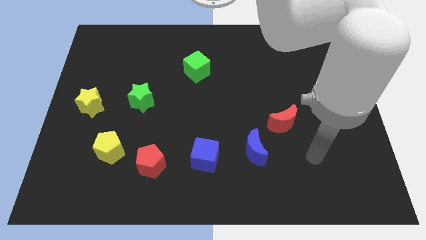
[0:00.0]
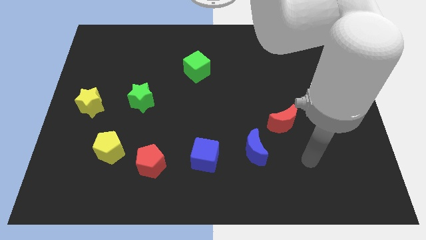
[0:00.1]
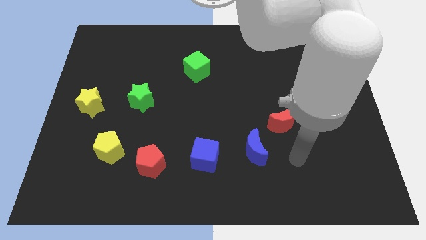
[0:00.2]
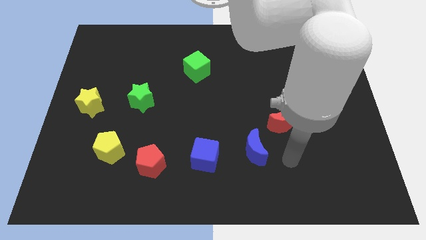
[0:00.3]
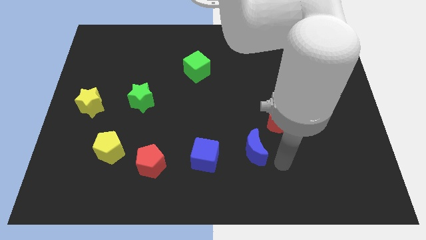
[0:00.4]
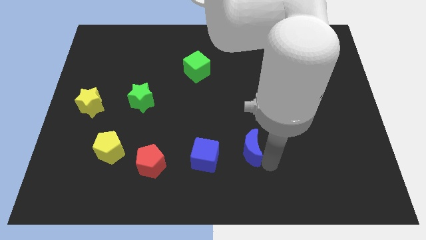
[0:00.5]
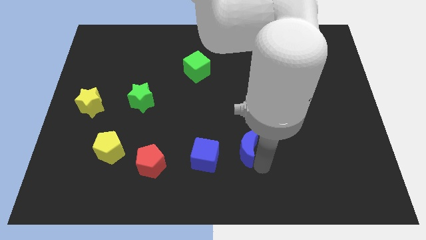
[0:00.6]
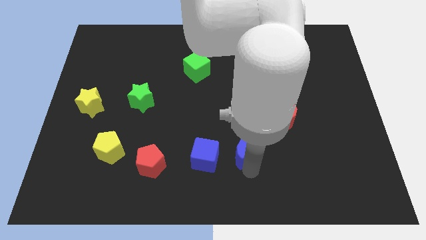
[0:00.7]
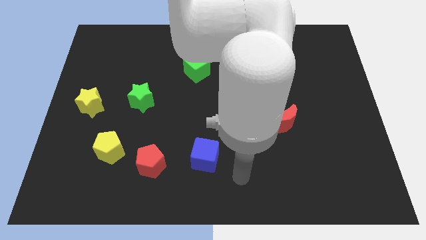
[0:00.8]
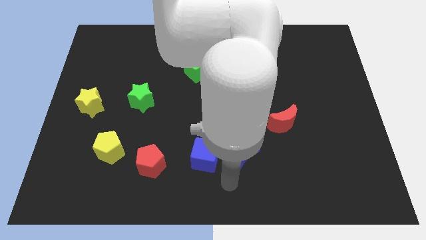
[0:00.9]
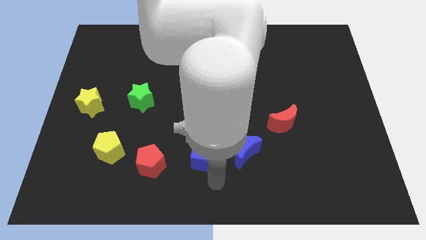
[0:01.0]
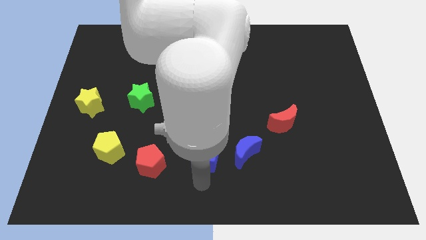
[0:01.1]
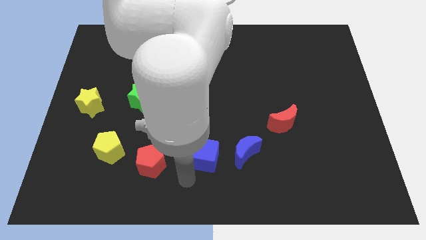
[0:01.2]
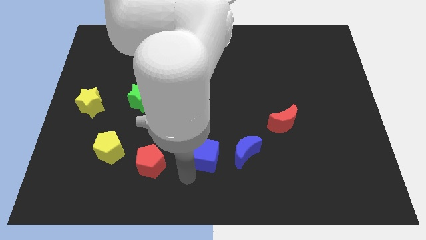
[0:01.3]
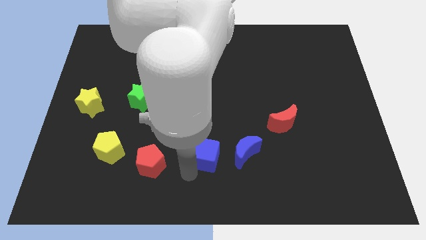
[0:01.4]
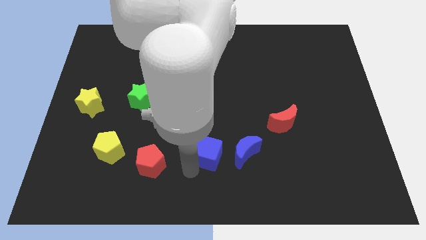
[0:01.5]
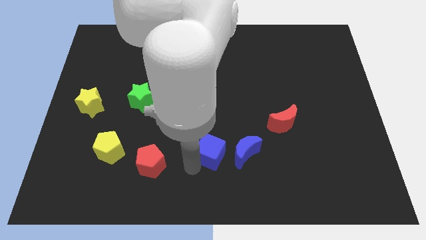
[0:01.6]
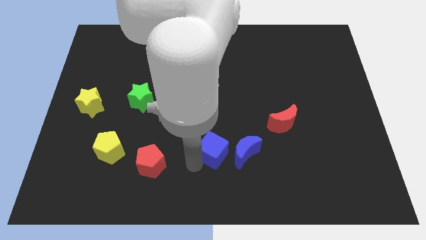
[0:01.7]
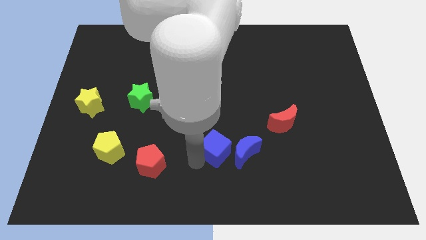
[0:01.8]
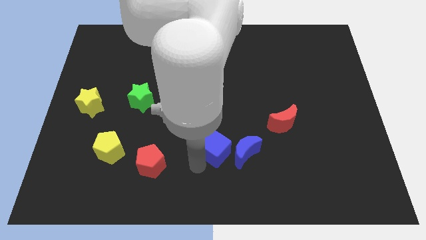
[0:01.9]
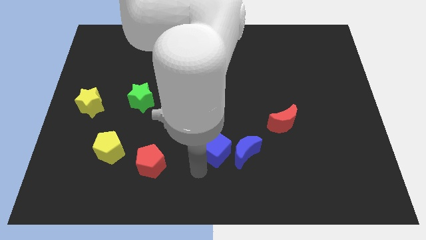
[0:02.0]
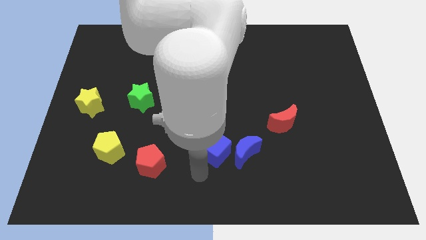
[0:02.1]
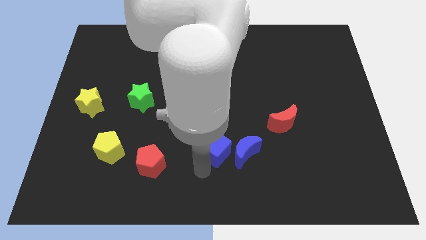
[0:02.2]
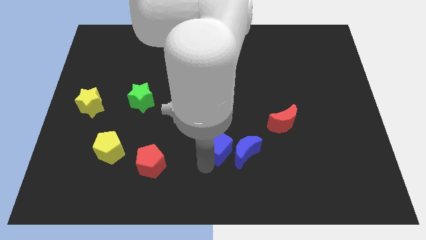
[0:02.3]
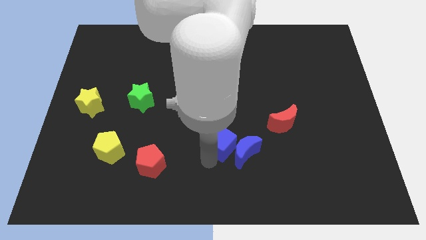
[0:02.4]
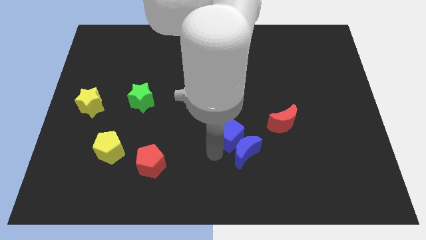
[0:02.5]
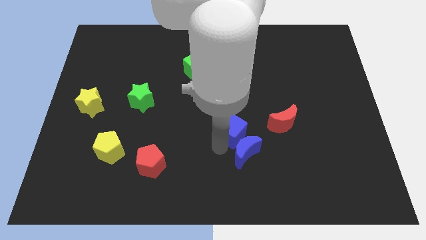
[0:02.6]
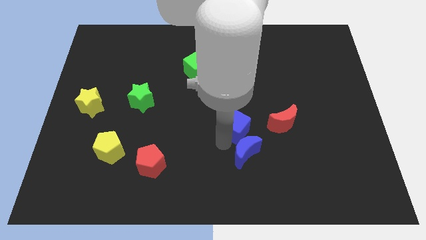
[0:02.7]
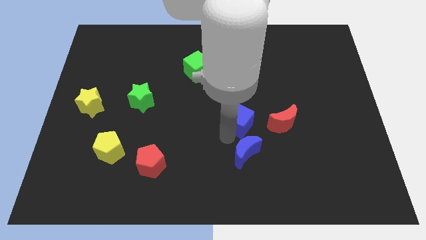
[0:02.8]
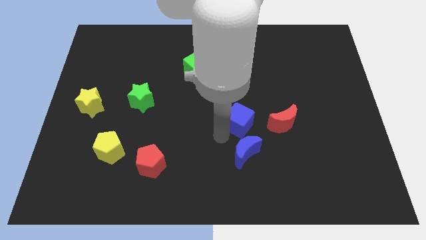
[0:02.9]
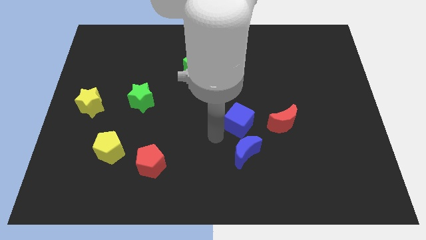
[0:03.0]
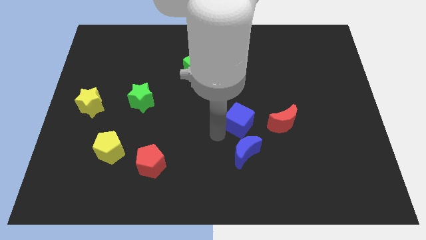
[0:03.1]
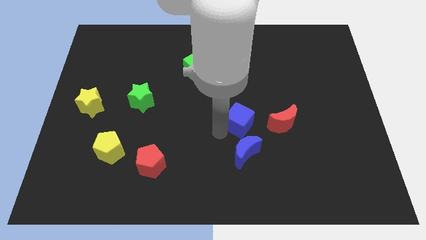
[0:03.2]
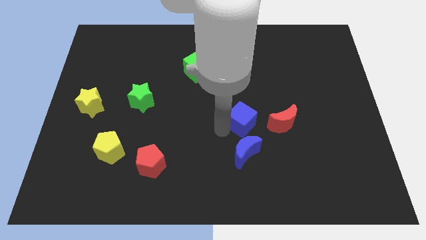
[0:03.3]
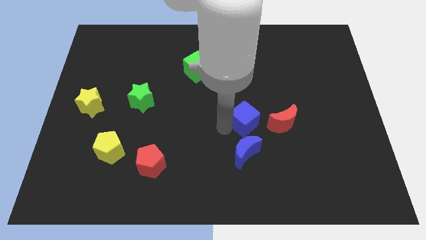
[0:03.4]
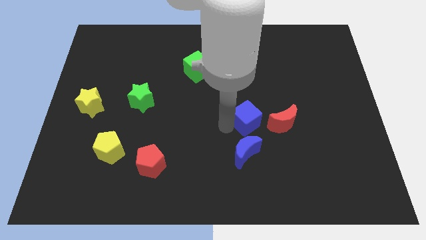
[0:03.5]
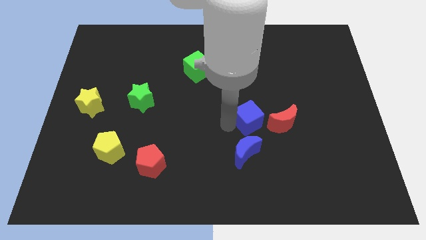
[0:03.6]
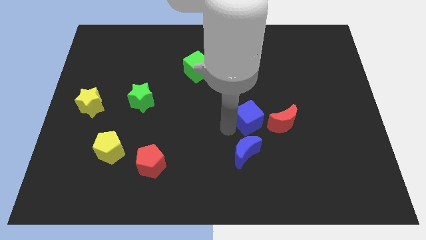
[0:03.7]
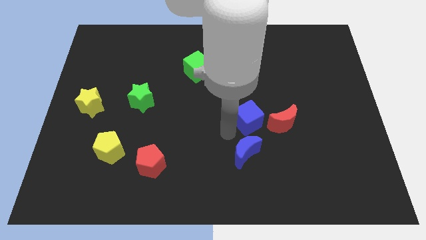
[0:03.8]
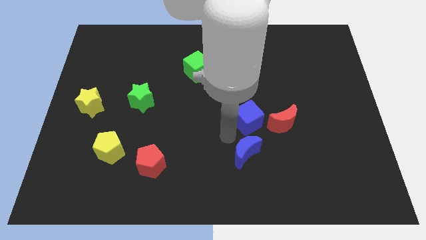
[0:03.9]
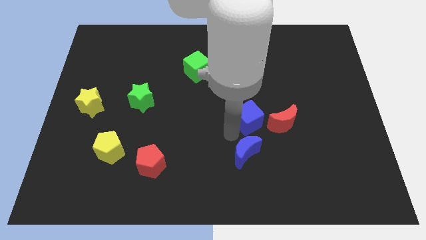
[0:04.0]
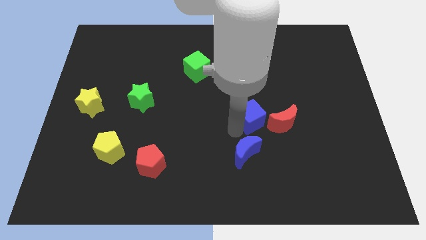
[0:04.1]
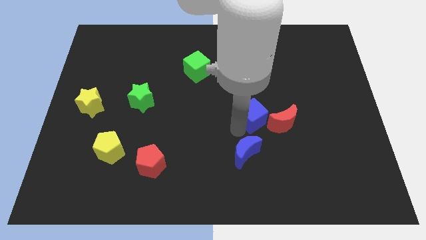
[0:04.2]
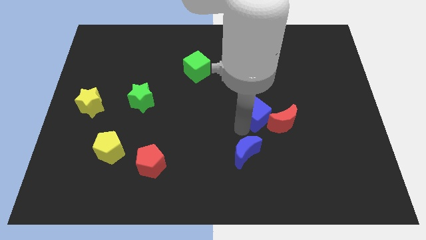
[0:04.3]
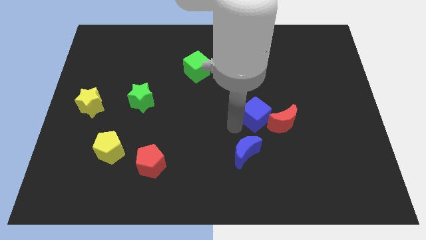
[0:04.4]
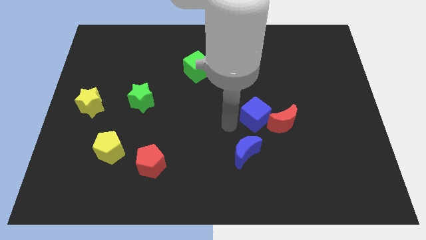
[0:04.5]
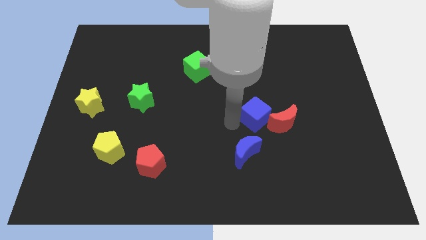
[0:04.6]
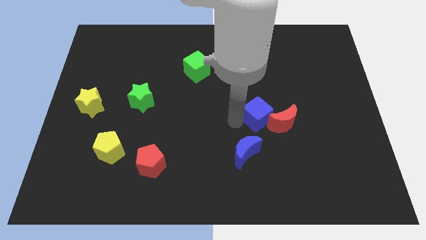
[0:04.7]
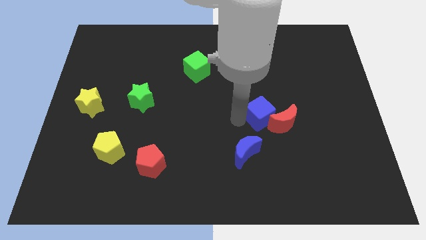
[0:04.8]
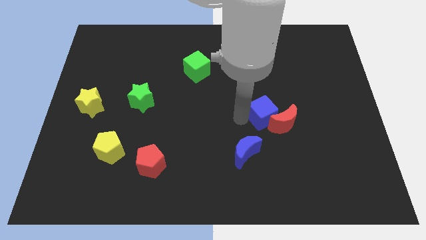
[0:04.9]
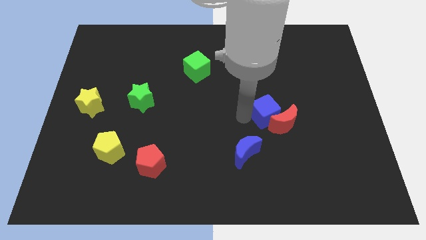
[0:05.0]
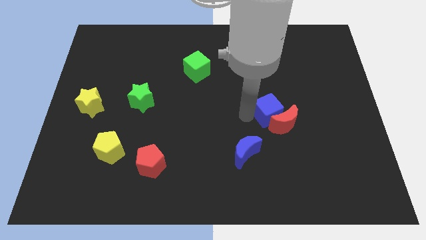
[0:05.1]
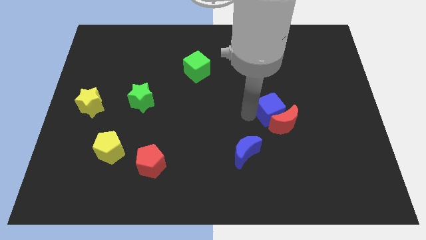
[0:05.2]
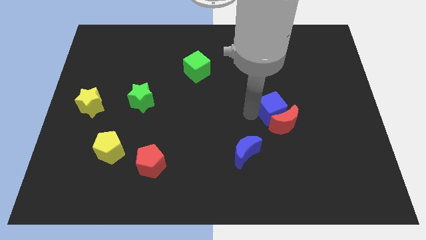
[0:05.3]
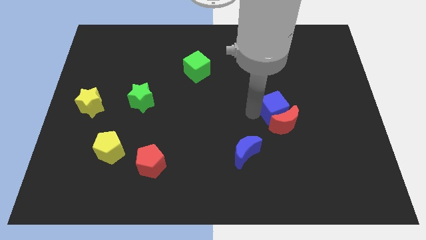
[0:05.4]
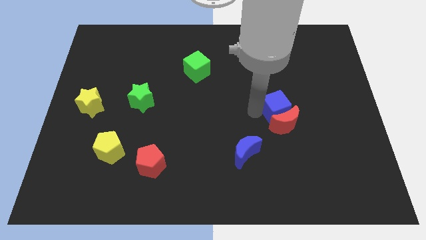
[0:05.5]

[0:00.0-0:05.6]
slide the blue cube to the top right side of the red moon

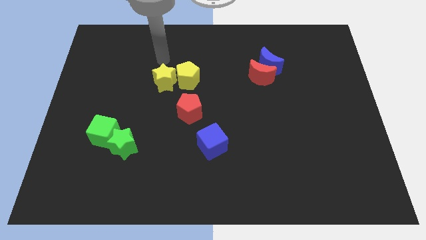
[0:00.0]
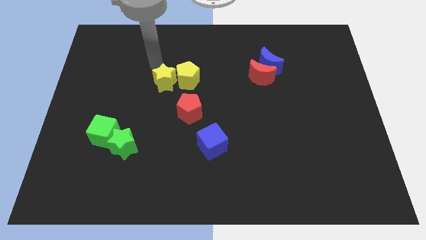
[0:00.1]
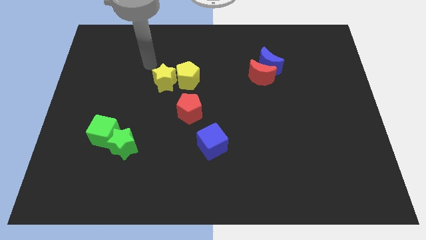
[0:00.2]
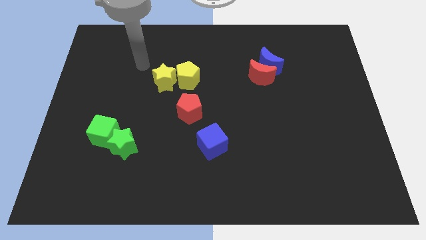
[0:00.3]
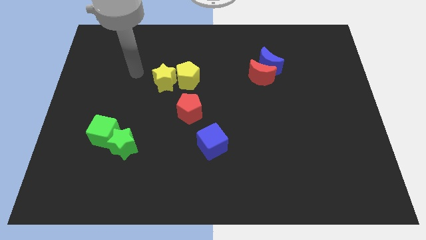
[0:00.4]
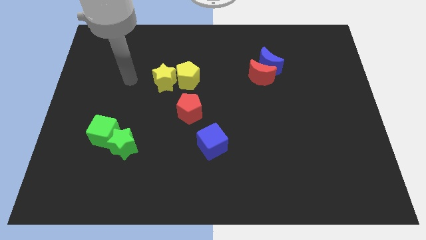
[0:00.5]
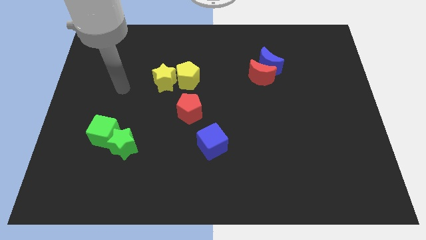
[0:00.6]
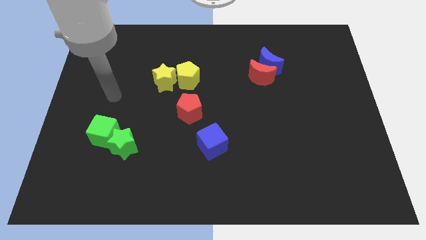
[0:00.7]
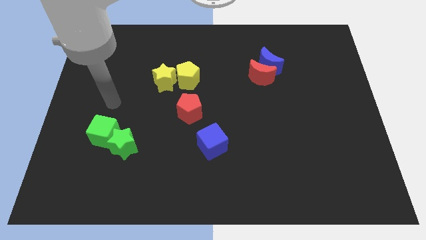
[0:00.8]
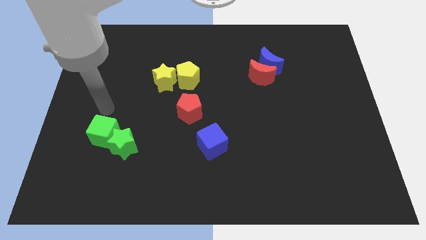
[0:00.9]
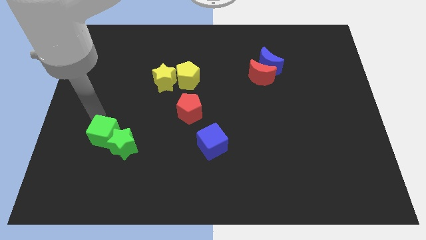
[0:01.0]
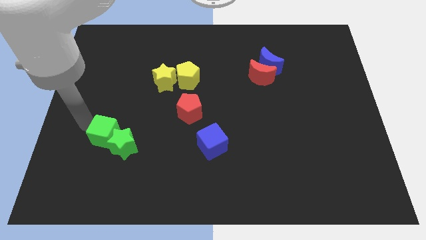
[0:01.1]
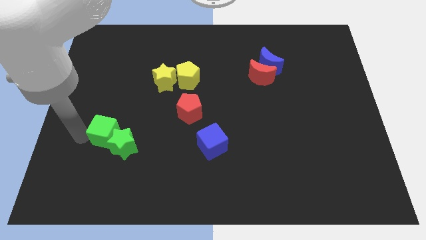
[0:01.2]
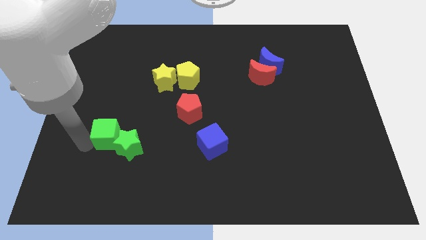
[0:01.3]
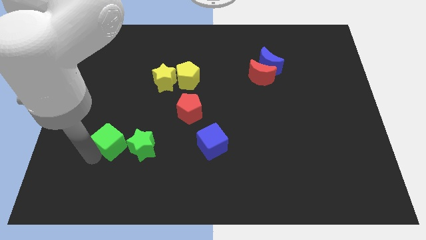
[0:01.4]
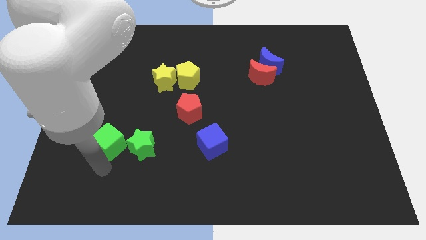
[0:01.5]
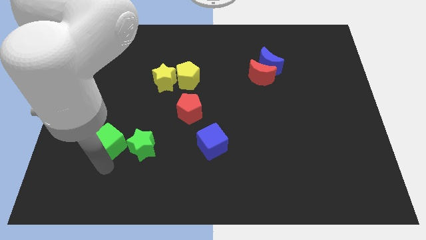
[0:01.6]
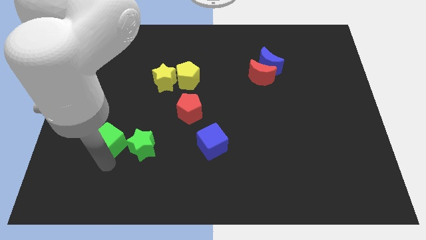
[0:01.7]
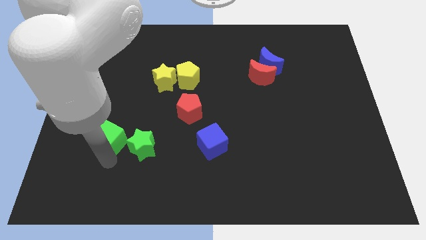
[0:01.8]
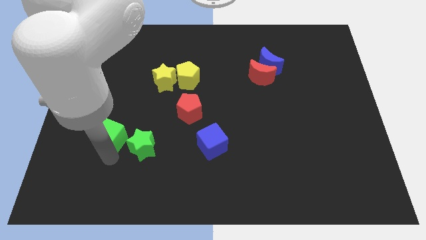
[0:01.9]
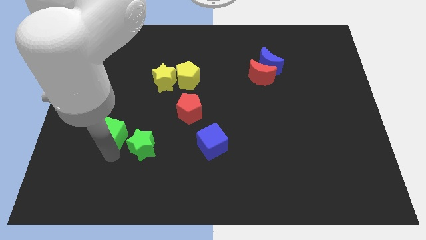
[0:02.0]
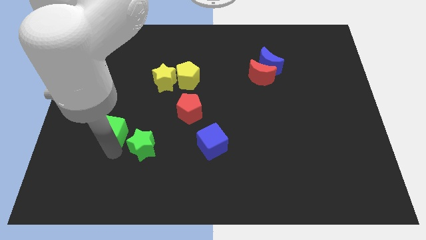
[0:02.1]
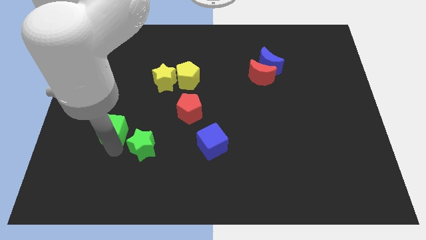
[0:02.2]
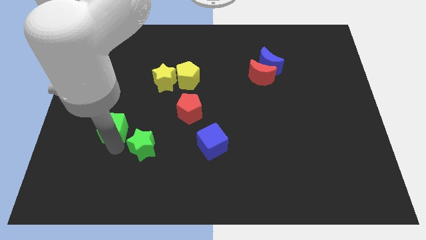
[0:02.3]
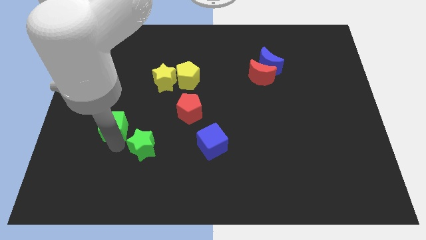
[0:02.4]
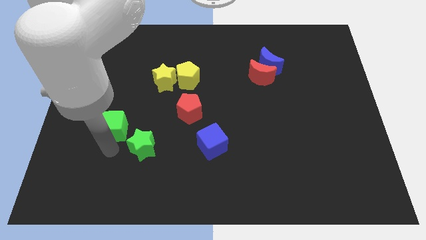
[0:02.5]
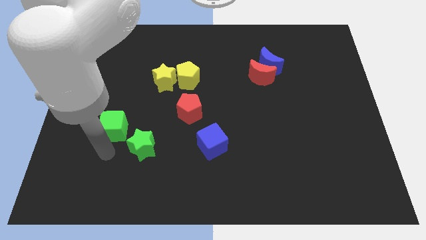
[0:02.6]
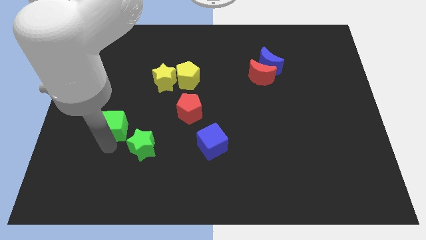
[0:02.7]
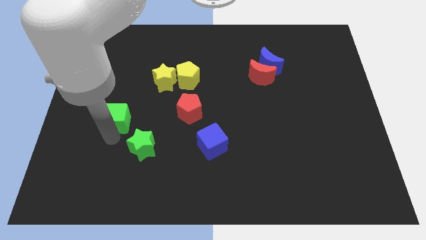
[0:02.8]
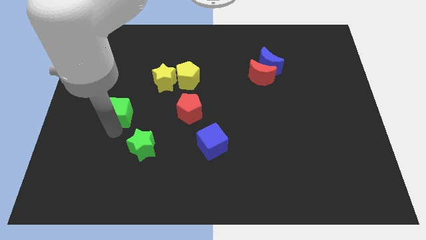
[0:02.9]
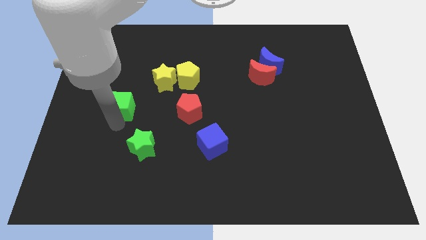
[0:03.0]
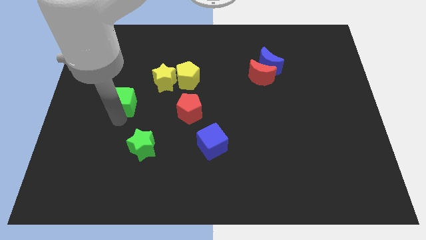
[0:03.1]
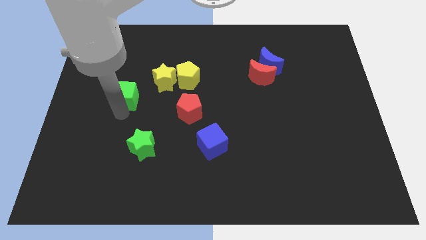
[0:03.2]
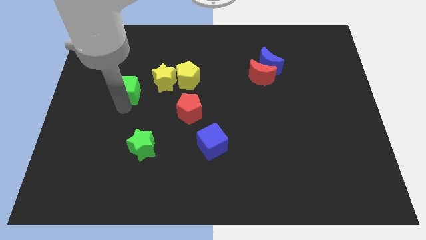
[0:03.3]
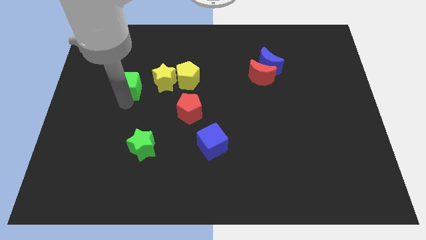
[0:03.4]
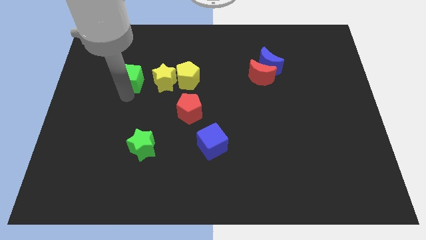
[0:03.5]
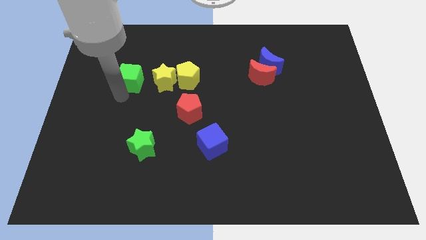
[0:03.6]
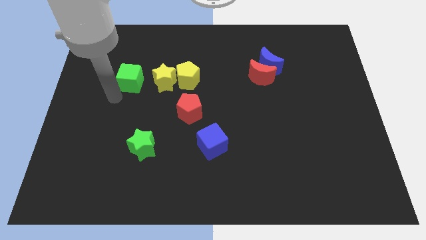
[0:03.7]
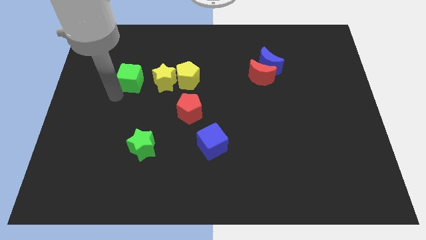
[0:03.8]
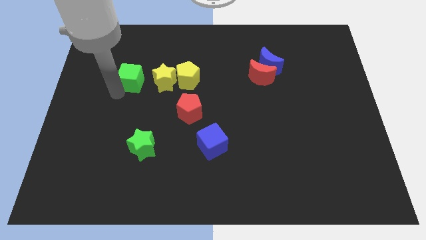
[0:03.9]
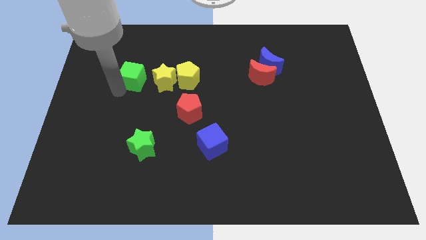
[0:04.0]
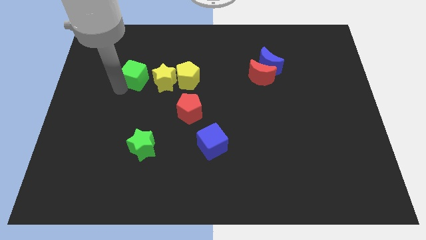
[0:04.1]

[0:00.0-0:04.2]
slide the green cube to the top left of the yellow star
